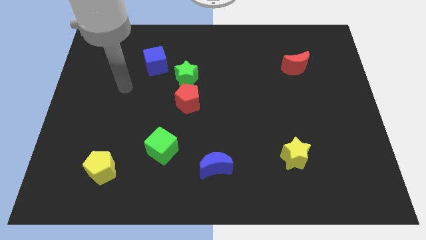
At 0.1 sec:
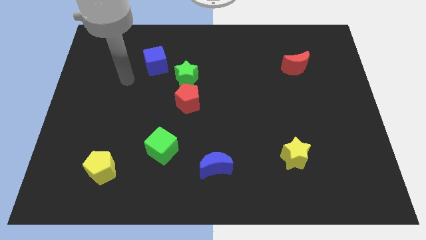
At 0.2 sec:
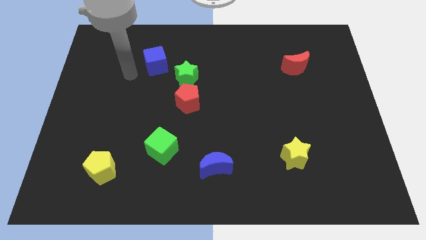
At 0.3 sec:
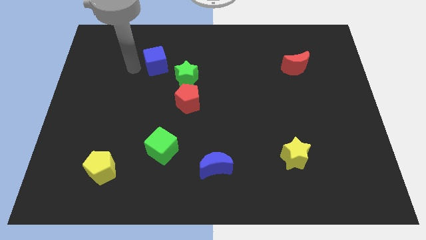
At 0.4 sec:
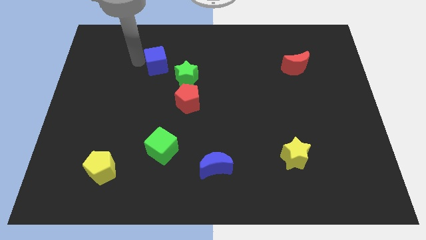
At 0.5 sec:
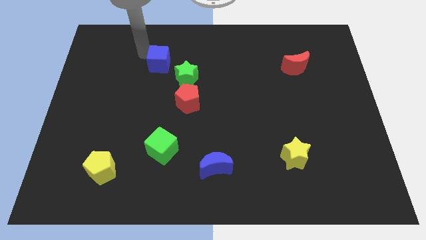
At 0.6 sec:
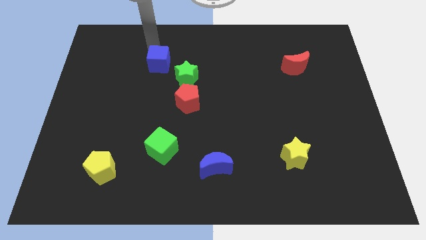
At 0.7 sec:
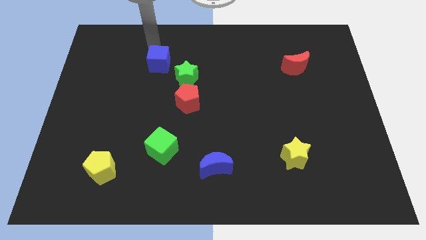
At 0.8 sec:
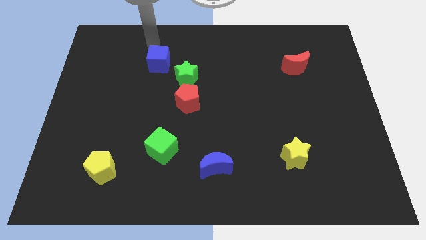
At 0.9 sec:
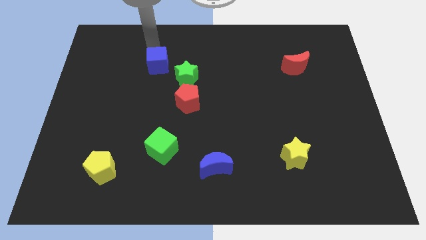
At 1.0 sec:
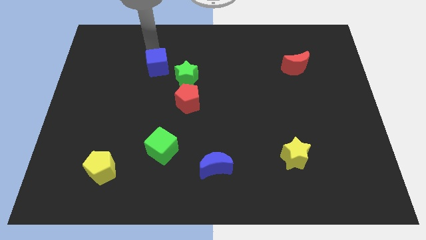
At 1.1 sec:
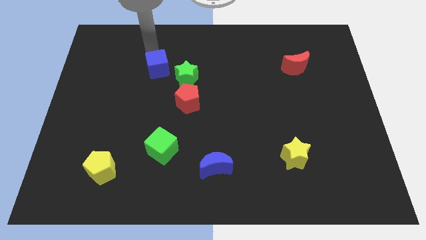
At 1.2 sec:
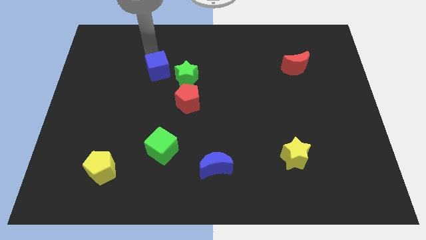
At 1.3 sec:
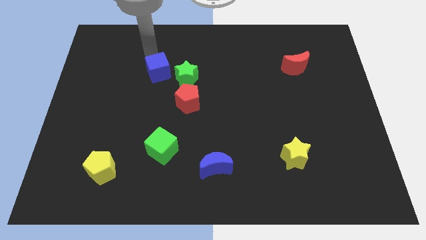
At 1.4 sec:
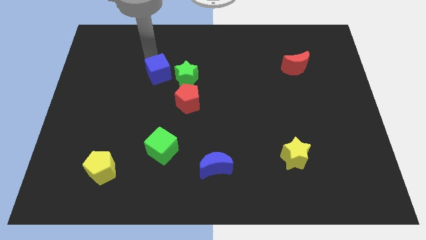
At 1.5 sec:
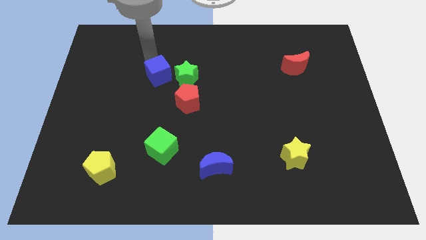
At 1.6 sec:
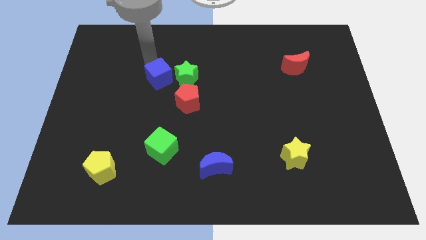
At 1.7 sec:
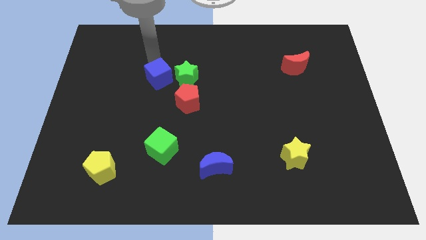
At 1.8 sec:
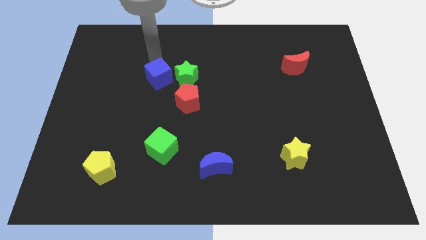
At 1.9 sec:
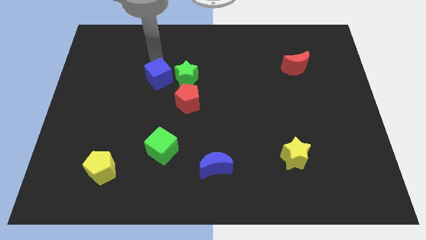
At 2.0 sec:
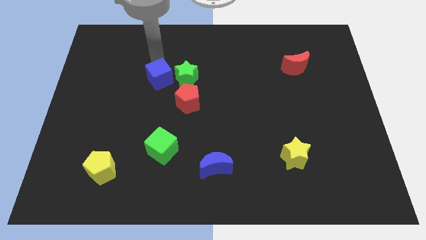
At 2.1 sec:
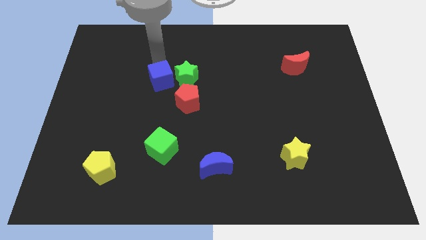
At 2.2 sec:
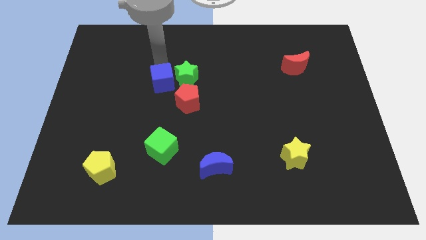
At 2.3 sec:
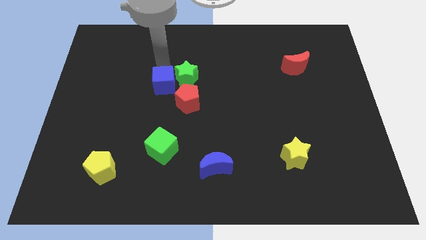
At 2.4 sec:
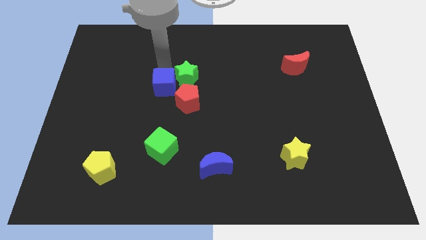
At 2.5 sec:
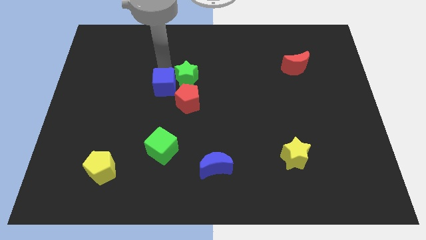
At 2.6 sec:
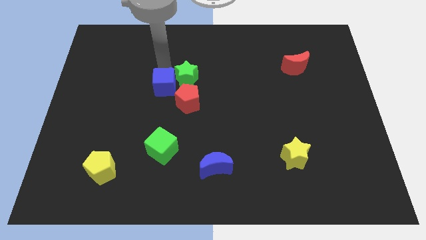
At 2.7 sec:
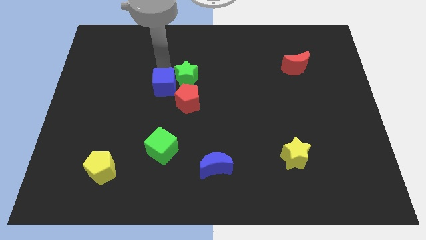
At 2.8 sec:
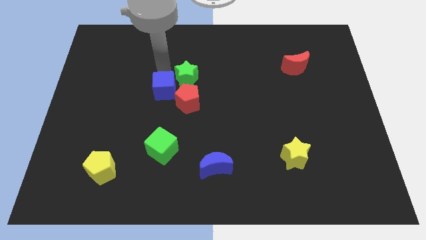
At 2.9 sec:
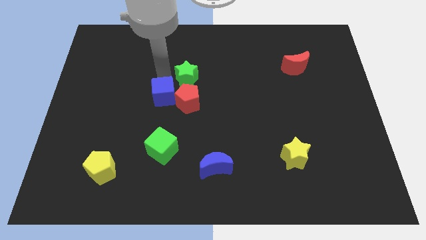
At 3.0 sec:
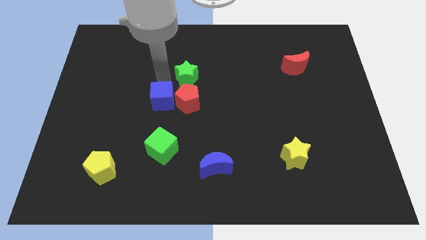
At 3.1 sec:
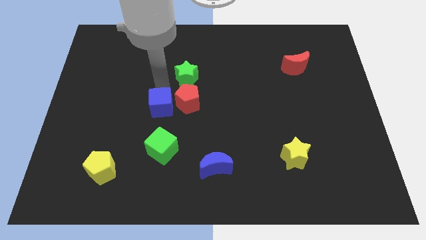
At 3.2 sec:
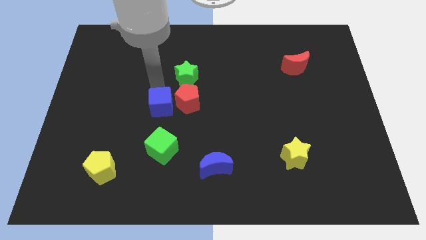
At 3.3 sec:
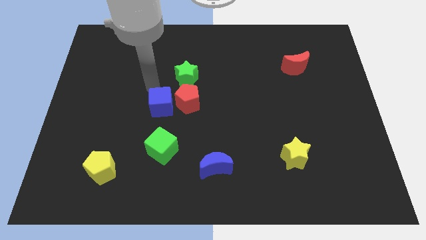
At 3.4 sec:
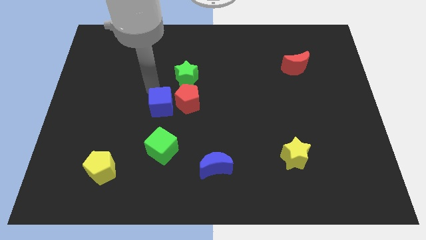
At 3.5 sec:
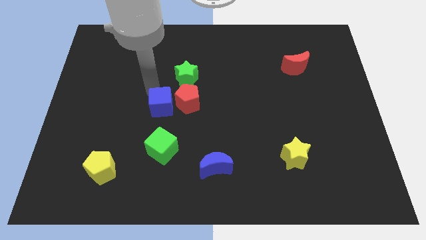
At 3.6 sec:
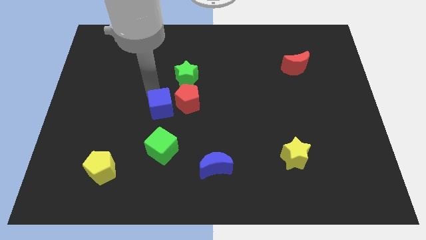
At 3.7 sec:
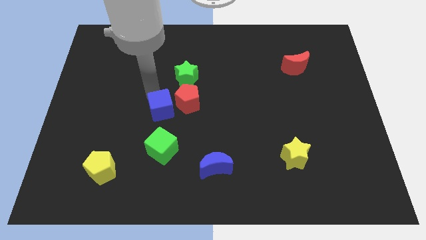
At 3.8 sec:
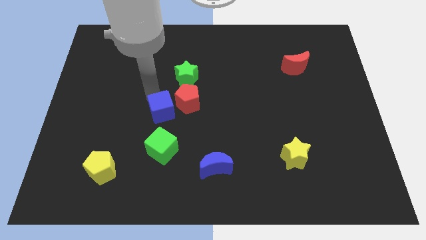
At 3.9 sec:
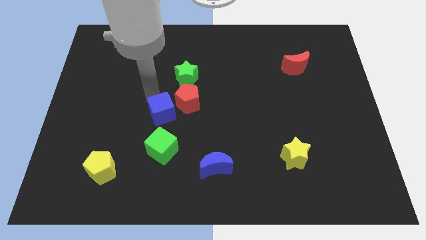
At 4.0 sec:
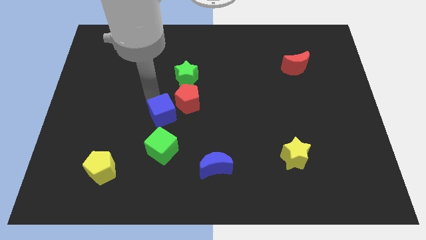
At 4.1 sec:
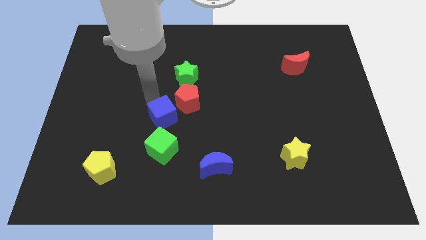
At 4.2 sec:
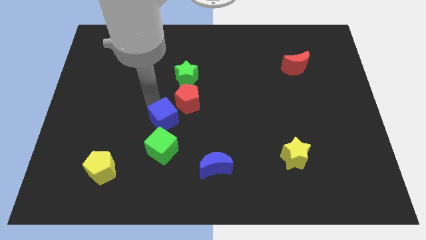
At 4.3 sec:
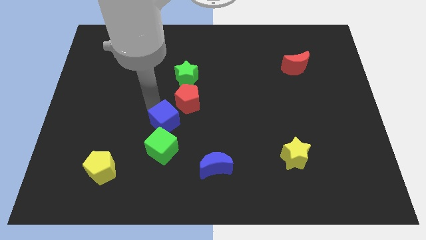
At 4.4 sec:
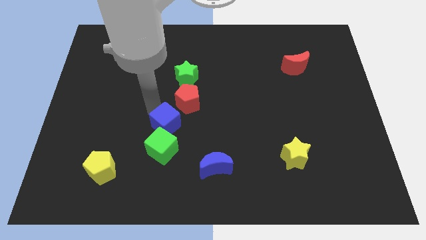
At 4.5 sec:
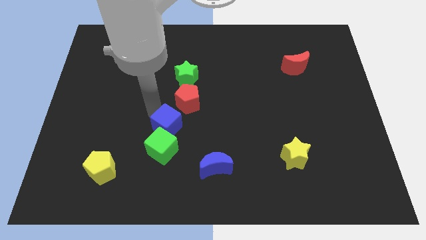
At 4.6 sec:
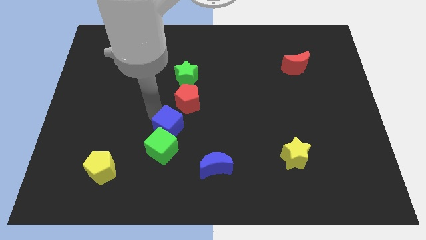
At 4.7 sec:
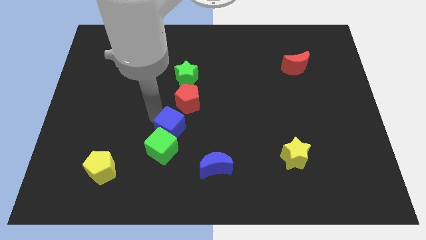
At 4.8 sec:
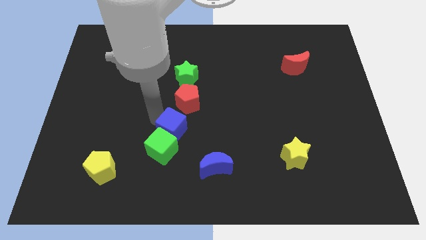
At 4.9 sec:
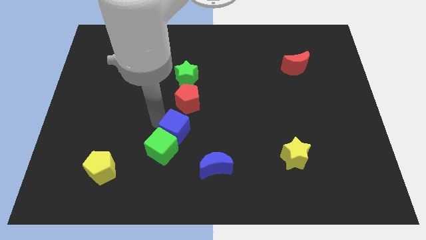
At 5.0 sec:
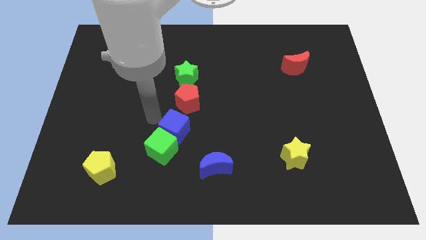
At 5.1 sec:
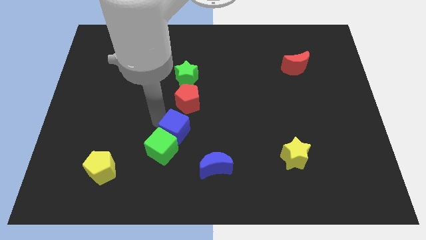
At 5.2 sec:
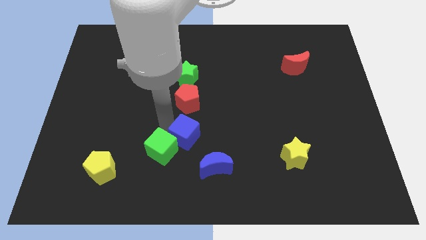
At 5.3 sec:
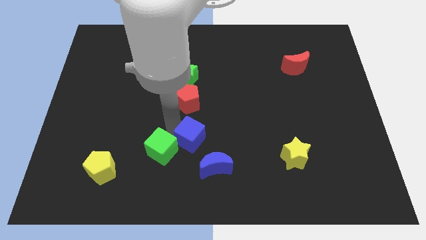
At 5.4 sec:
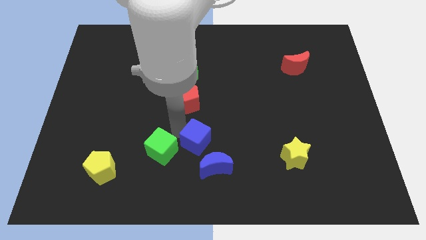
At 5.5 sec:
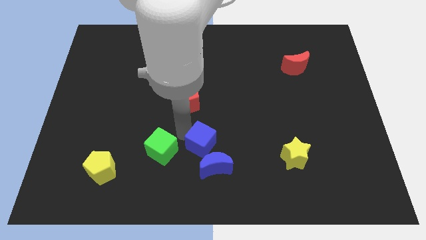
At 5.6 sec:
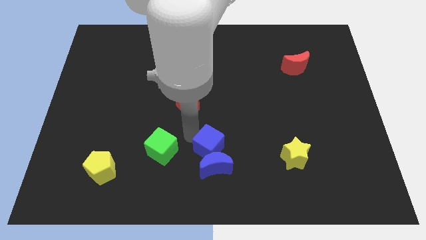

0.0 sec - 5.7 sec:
put the blue cube to the blue moon

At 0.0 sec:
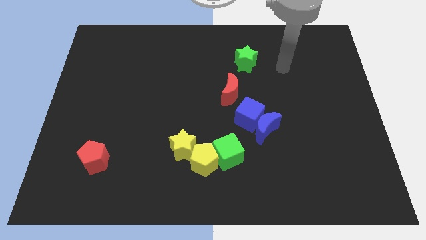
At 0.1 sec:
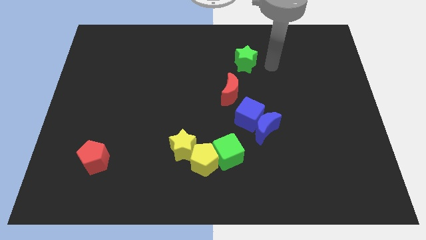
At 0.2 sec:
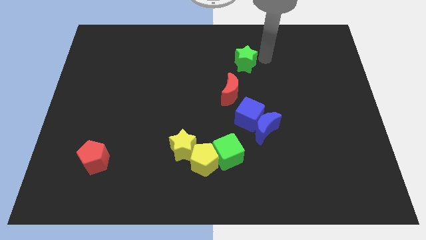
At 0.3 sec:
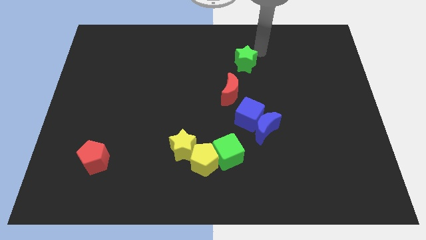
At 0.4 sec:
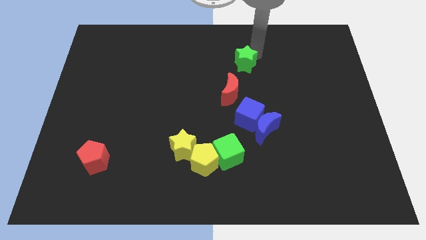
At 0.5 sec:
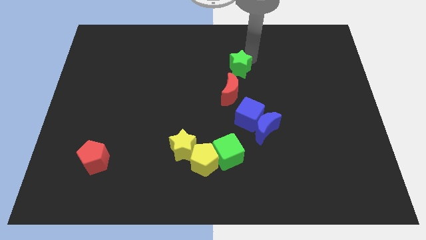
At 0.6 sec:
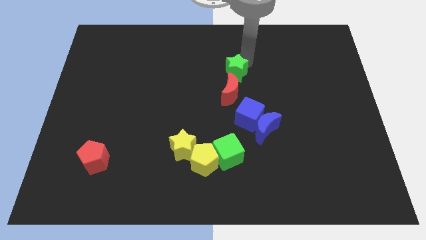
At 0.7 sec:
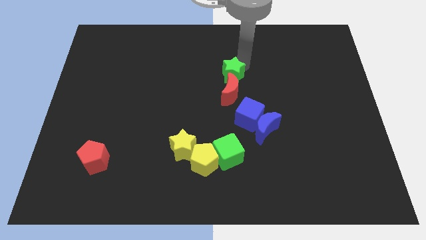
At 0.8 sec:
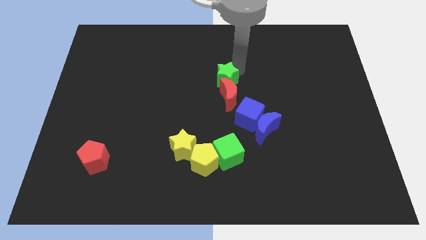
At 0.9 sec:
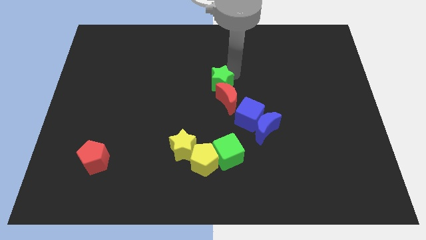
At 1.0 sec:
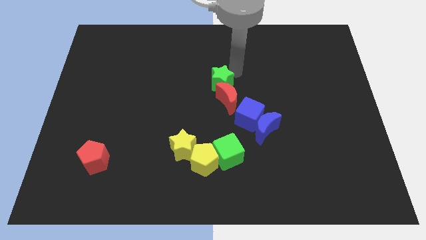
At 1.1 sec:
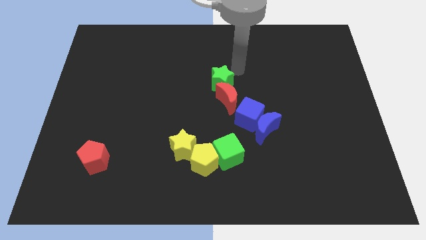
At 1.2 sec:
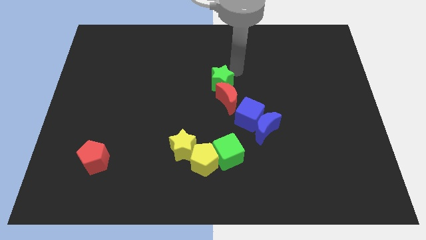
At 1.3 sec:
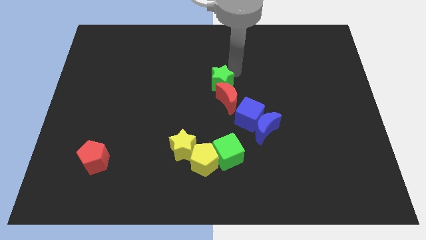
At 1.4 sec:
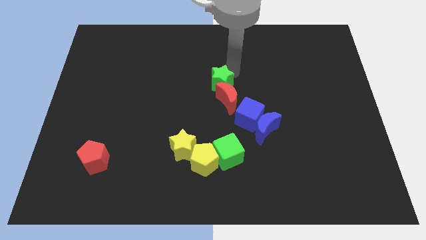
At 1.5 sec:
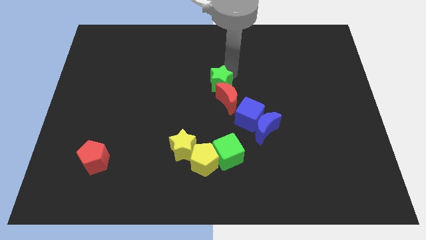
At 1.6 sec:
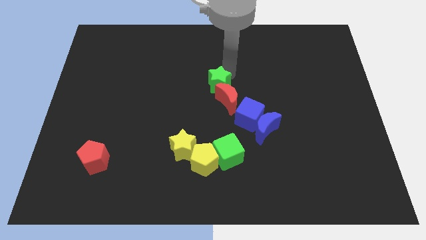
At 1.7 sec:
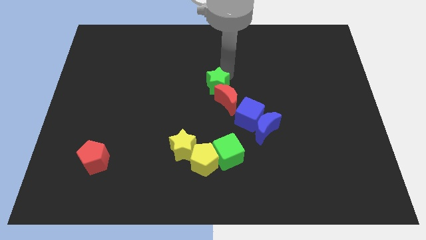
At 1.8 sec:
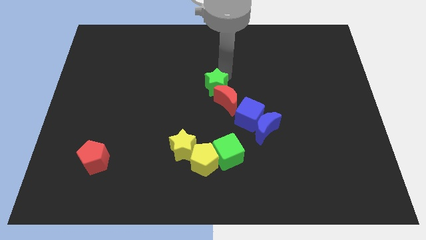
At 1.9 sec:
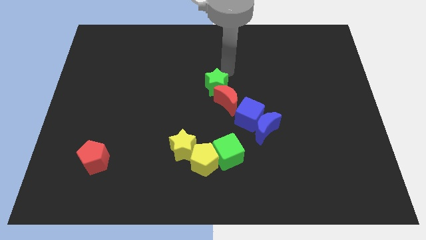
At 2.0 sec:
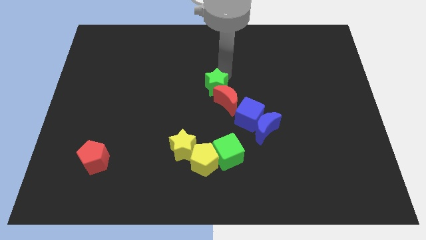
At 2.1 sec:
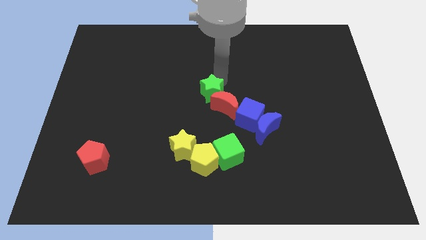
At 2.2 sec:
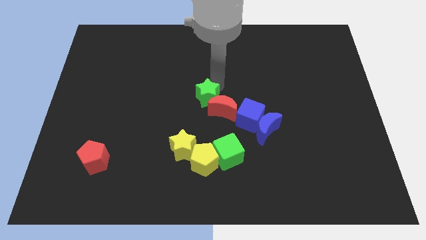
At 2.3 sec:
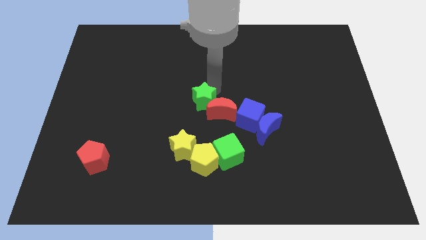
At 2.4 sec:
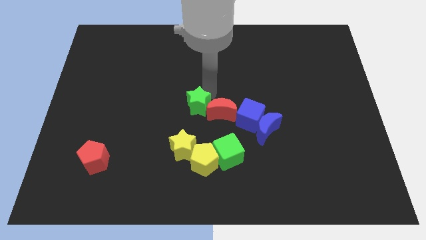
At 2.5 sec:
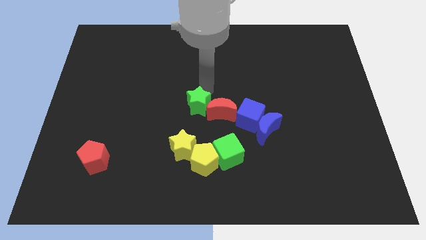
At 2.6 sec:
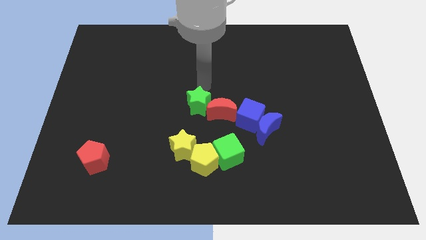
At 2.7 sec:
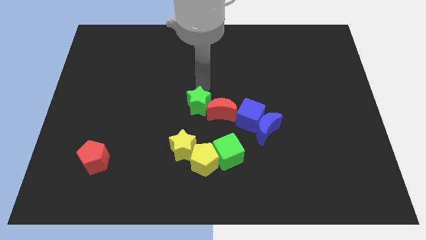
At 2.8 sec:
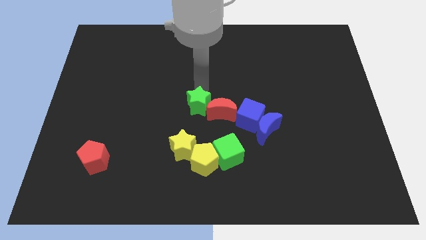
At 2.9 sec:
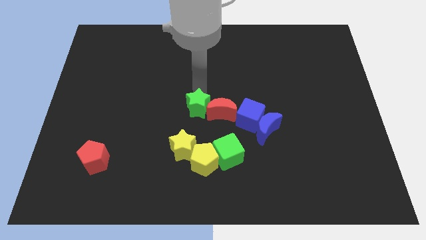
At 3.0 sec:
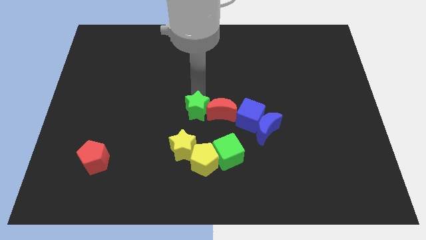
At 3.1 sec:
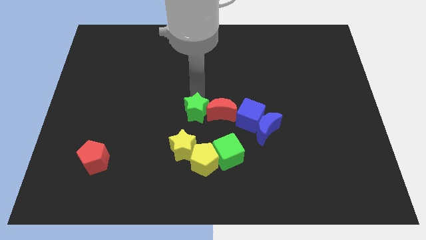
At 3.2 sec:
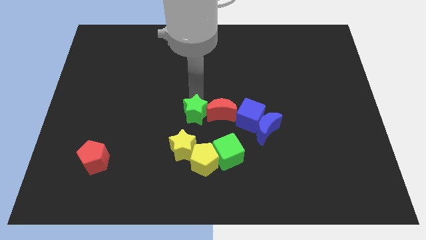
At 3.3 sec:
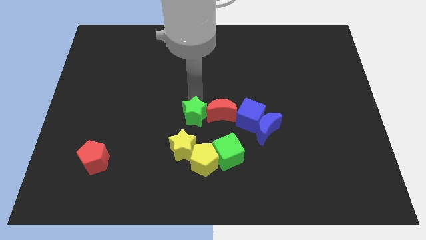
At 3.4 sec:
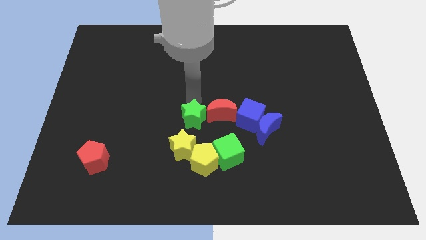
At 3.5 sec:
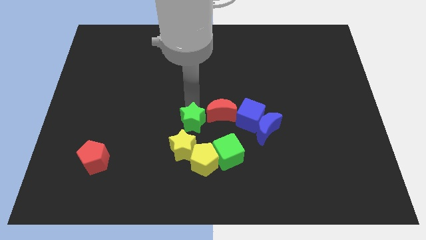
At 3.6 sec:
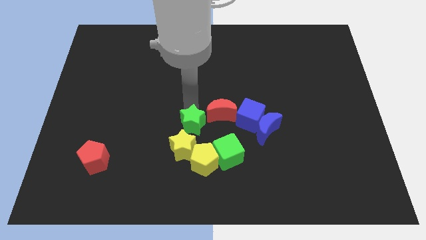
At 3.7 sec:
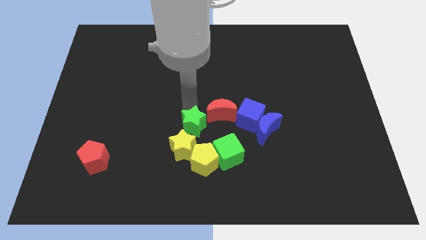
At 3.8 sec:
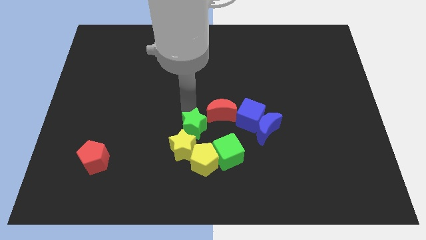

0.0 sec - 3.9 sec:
move the green star to the yellow star
